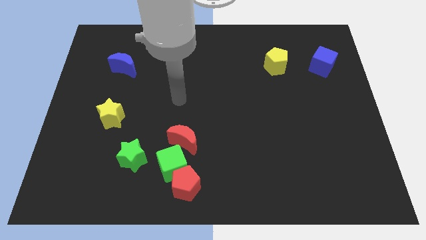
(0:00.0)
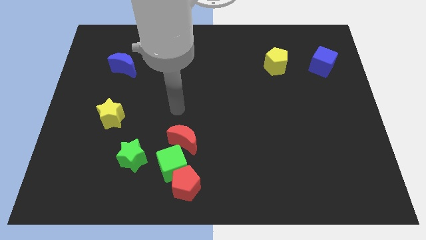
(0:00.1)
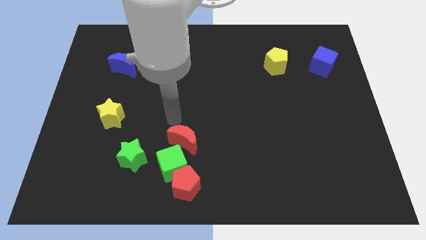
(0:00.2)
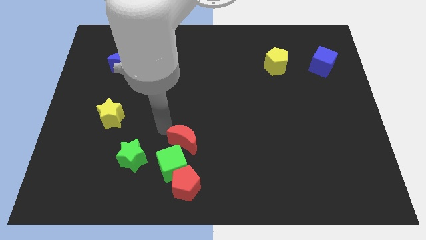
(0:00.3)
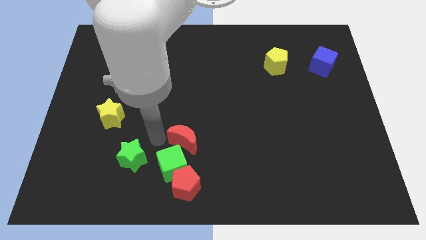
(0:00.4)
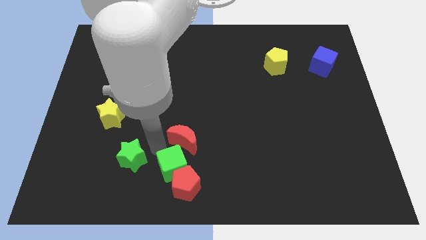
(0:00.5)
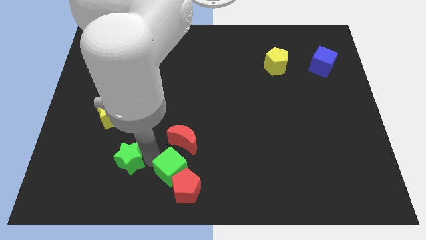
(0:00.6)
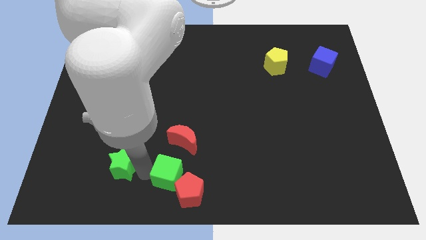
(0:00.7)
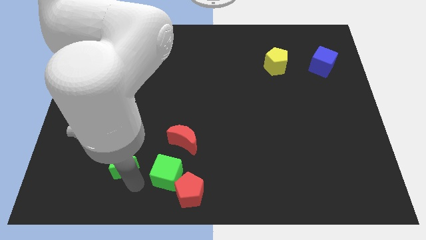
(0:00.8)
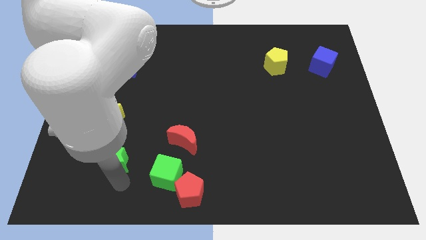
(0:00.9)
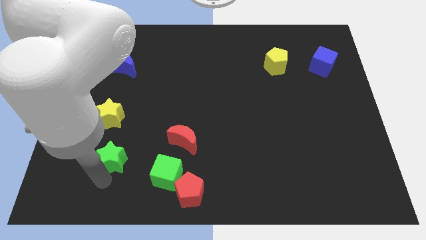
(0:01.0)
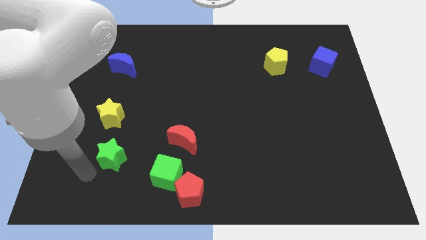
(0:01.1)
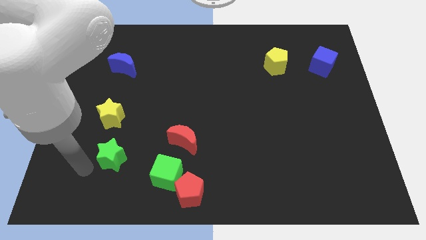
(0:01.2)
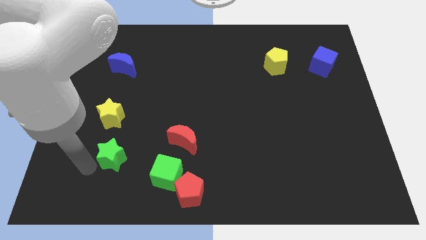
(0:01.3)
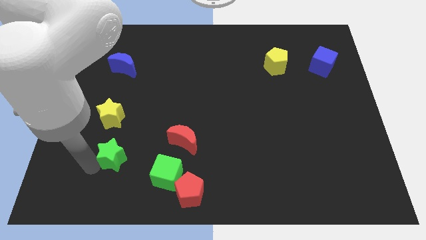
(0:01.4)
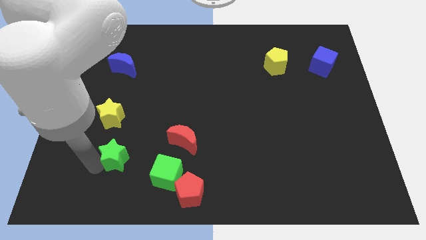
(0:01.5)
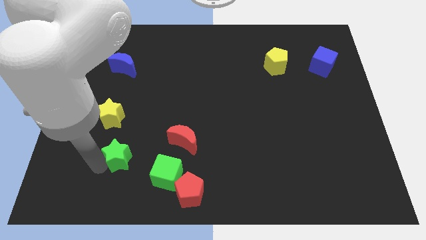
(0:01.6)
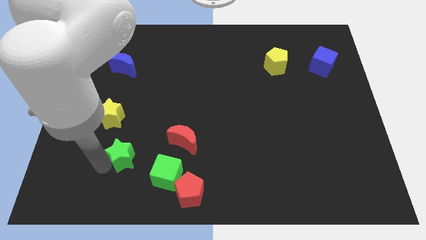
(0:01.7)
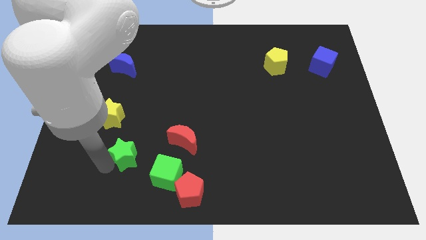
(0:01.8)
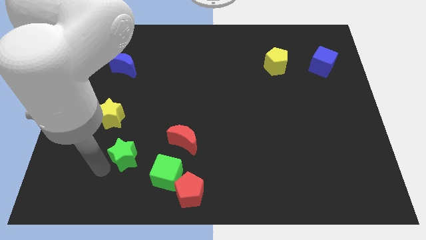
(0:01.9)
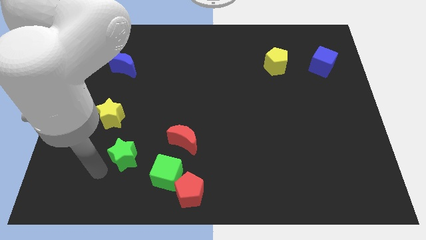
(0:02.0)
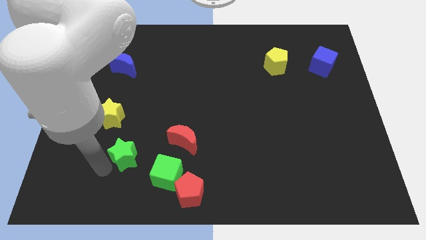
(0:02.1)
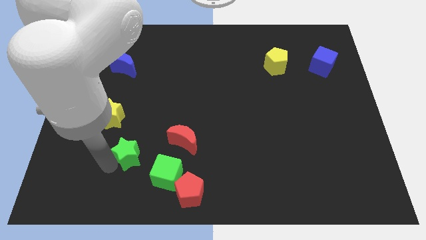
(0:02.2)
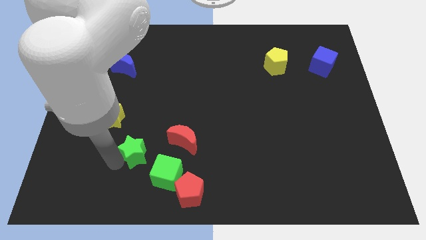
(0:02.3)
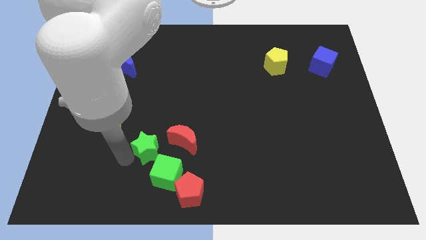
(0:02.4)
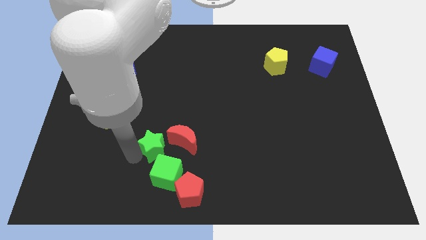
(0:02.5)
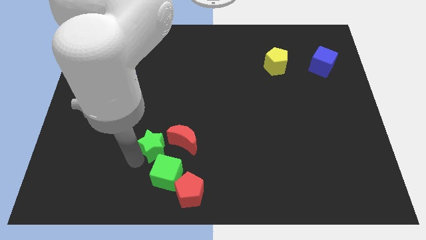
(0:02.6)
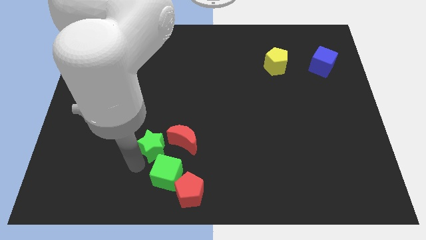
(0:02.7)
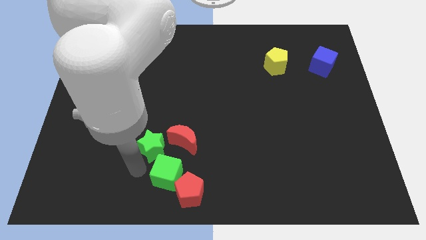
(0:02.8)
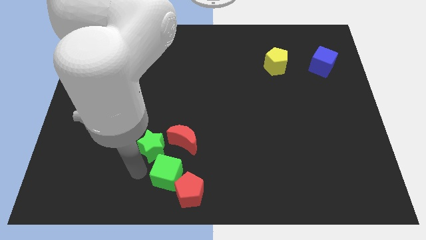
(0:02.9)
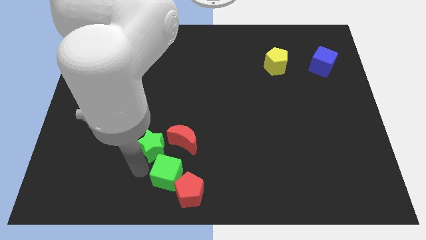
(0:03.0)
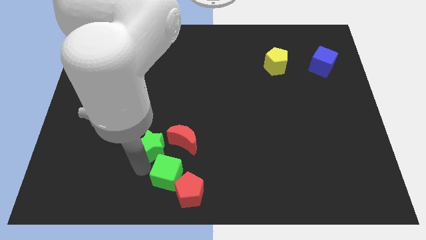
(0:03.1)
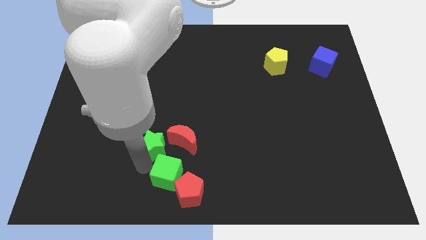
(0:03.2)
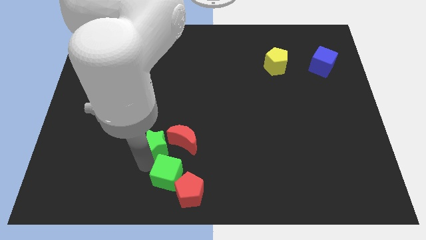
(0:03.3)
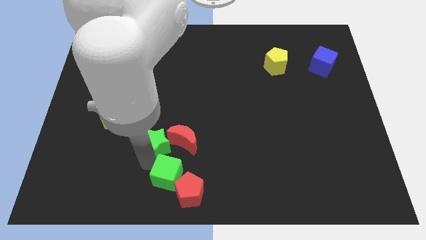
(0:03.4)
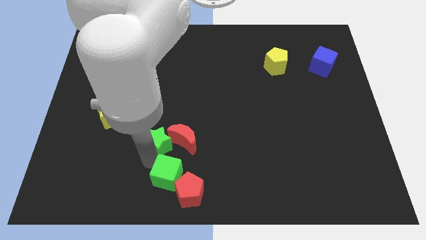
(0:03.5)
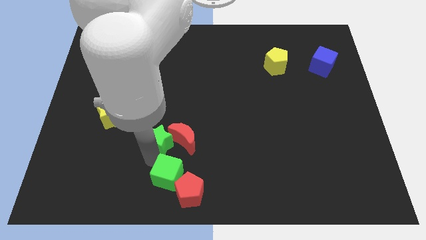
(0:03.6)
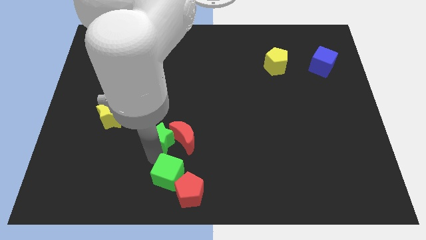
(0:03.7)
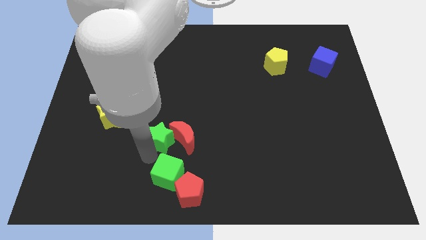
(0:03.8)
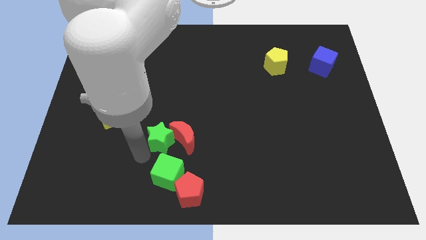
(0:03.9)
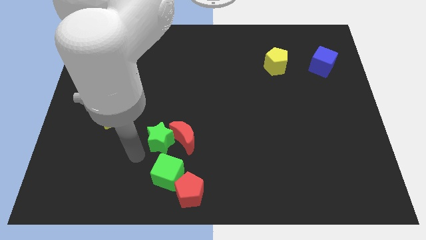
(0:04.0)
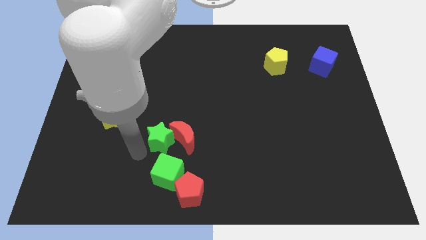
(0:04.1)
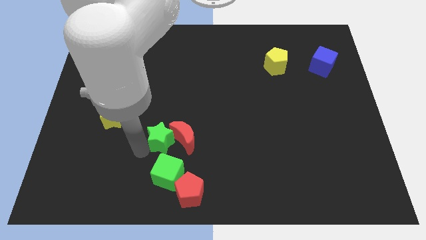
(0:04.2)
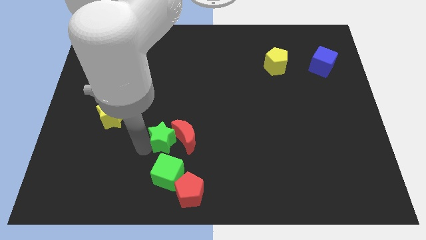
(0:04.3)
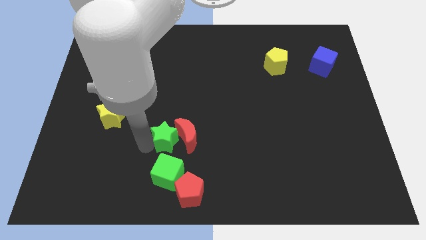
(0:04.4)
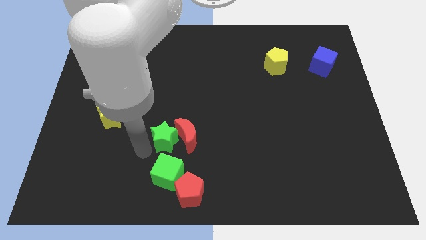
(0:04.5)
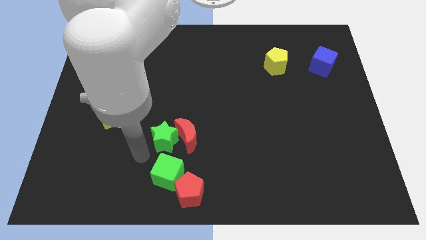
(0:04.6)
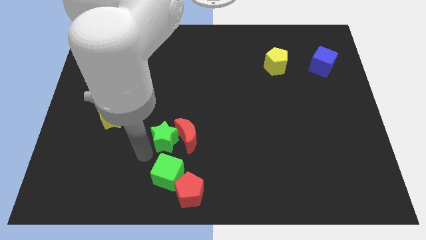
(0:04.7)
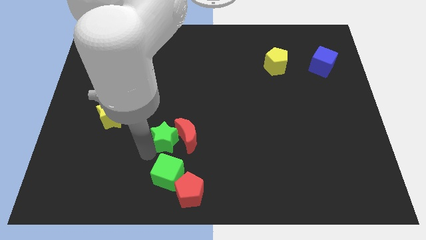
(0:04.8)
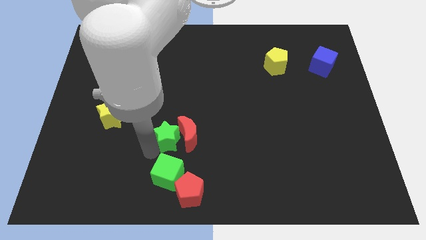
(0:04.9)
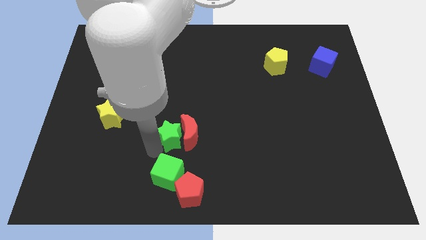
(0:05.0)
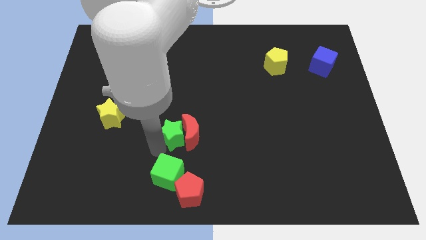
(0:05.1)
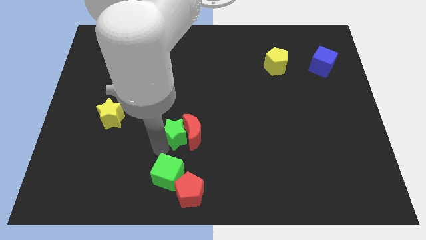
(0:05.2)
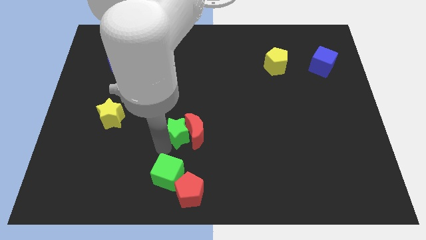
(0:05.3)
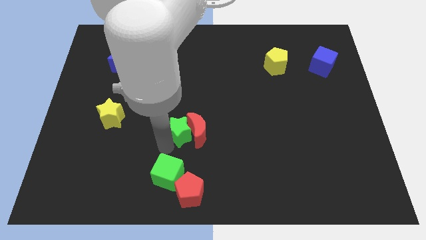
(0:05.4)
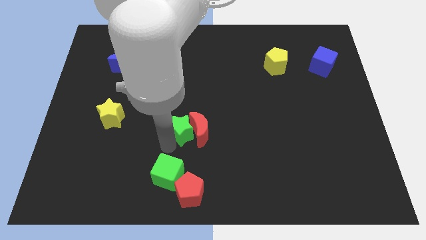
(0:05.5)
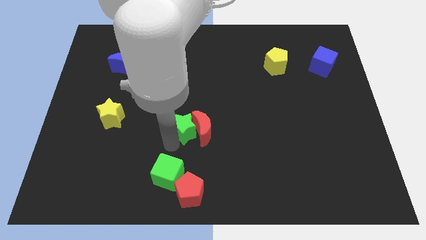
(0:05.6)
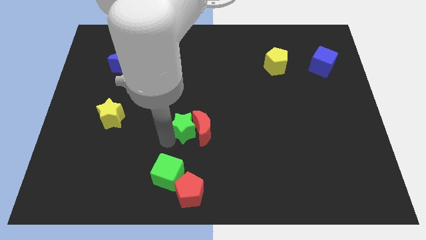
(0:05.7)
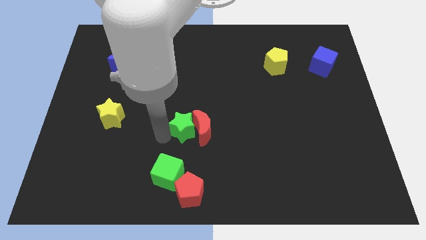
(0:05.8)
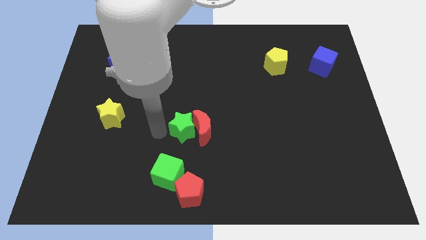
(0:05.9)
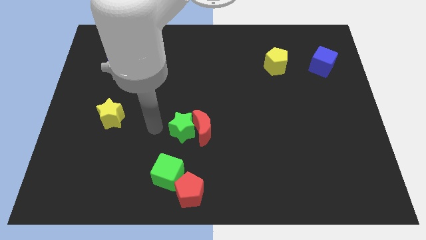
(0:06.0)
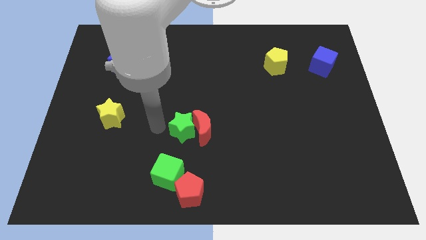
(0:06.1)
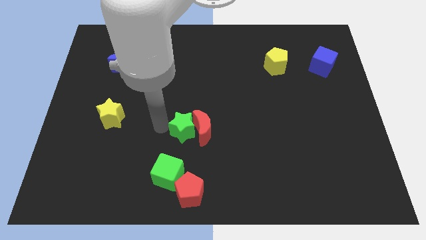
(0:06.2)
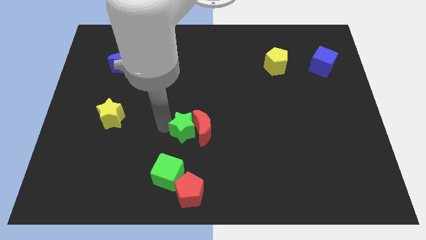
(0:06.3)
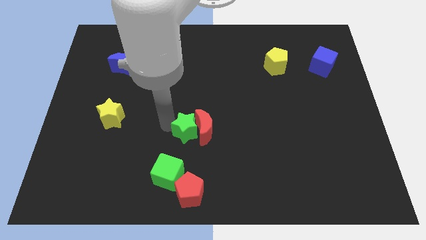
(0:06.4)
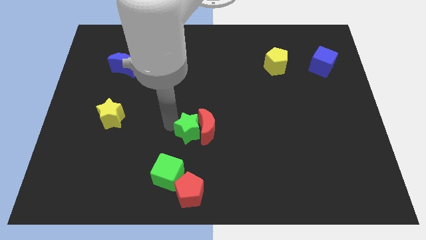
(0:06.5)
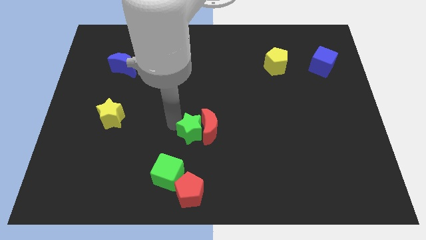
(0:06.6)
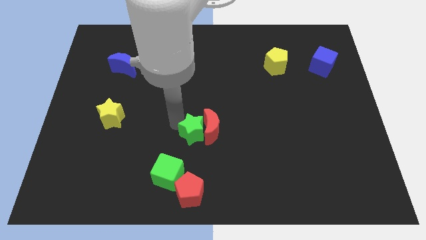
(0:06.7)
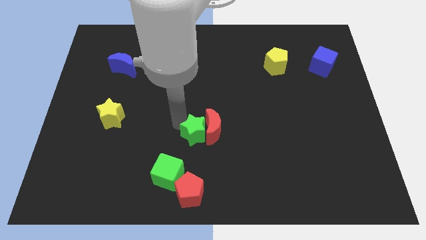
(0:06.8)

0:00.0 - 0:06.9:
put the green star to the top right of the green cube

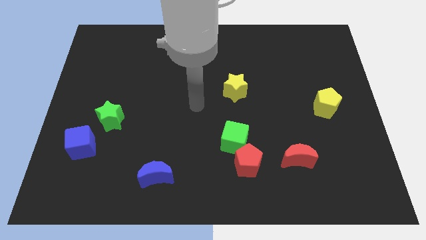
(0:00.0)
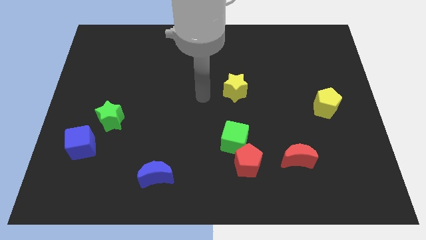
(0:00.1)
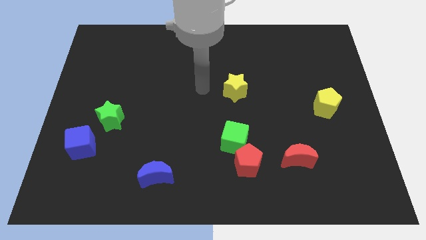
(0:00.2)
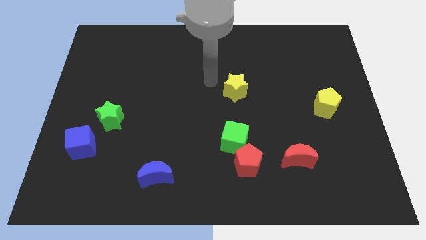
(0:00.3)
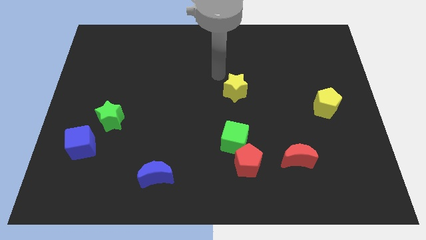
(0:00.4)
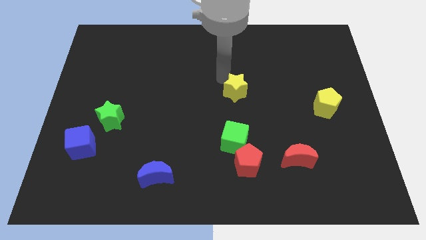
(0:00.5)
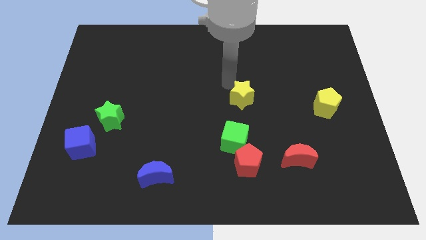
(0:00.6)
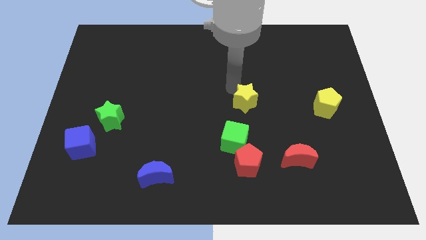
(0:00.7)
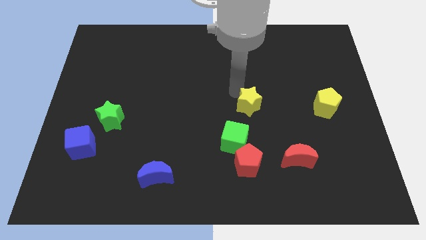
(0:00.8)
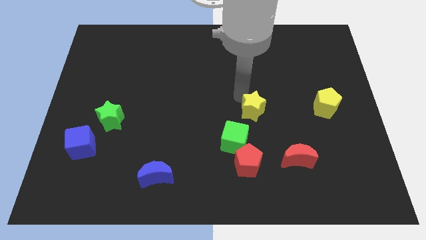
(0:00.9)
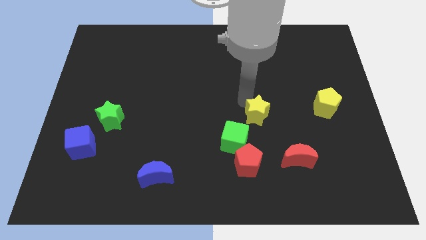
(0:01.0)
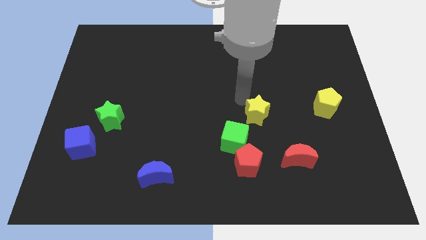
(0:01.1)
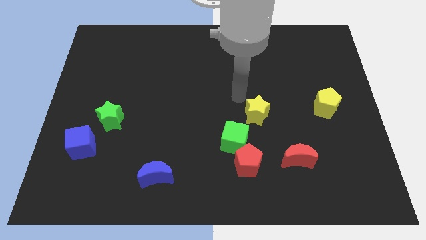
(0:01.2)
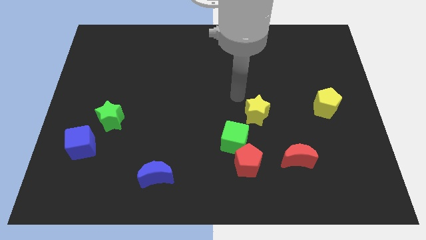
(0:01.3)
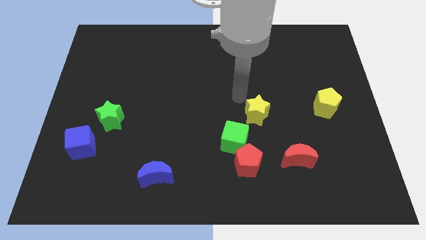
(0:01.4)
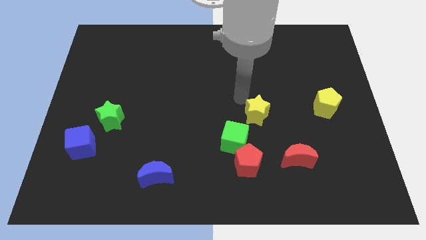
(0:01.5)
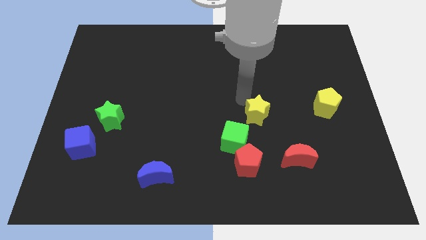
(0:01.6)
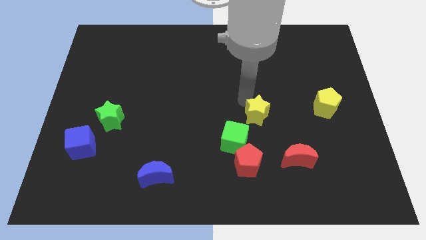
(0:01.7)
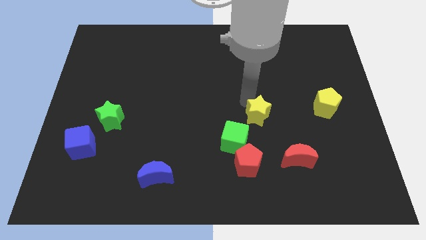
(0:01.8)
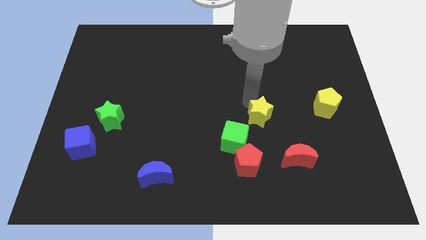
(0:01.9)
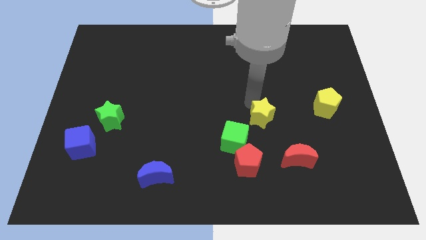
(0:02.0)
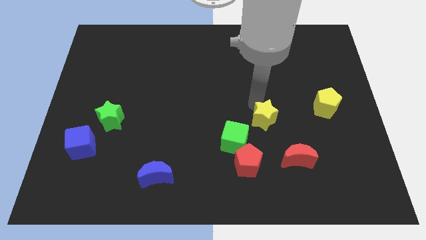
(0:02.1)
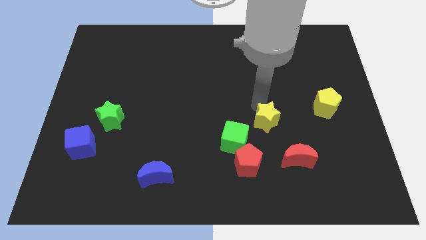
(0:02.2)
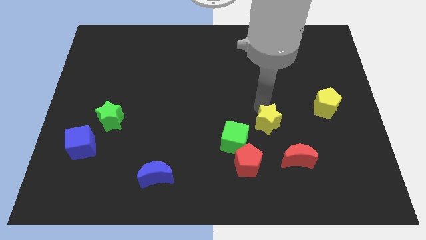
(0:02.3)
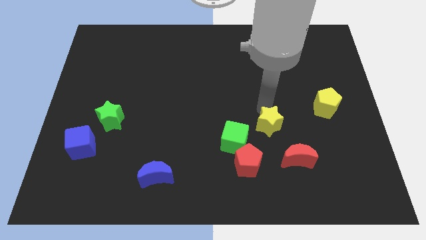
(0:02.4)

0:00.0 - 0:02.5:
move the yellow star to the right of the green cube
